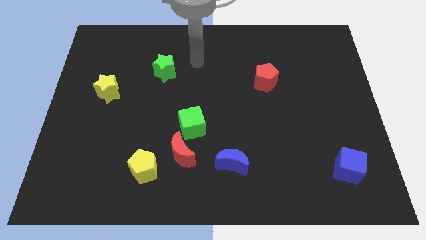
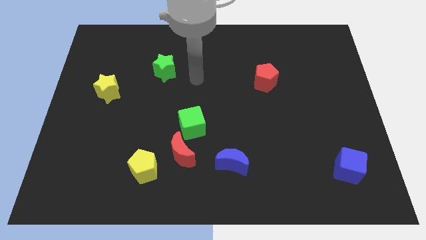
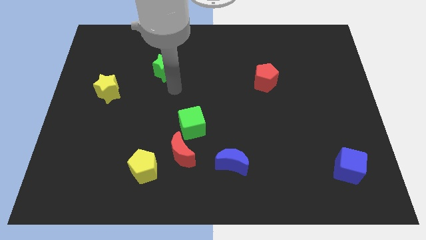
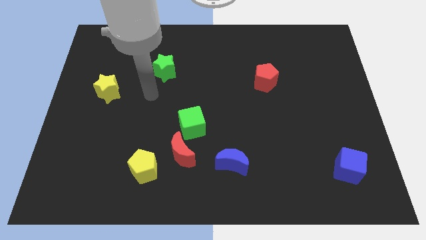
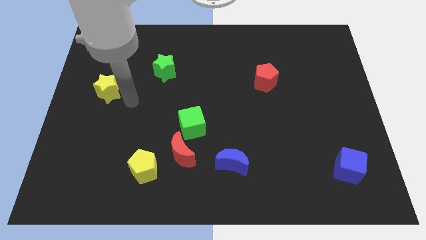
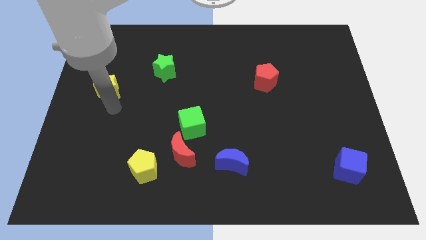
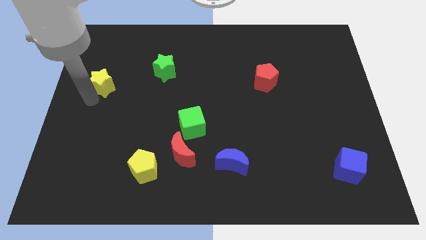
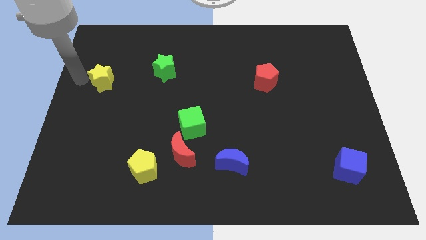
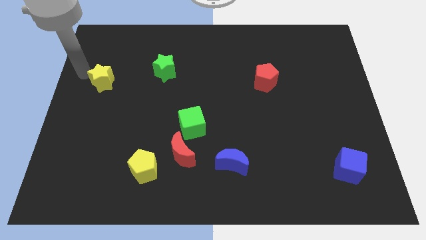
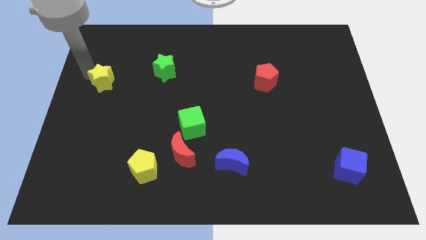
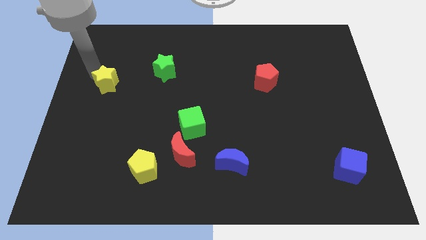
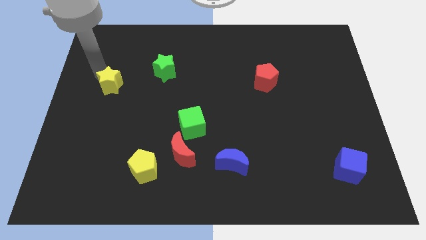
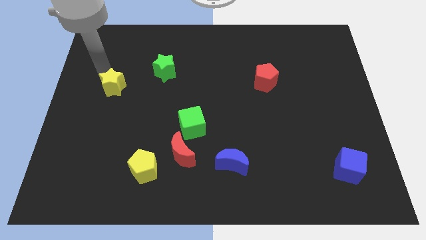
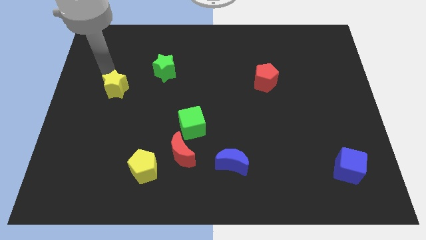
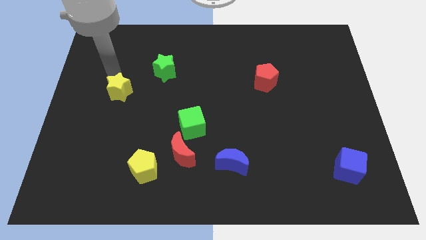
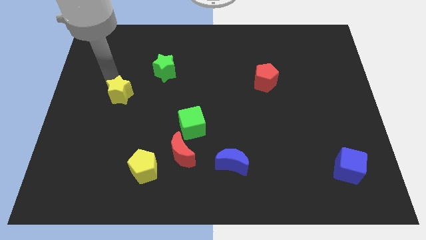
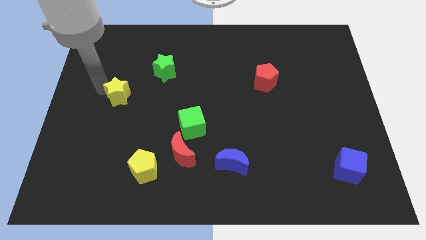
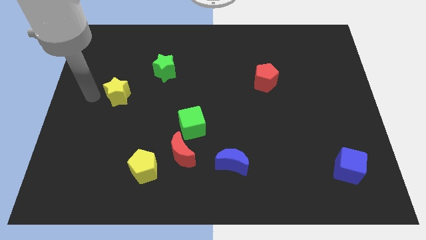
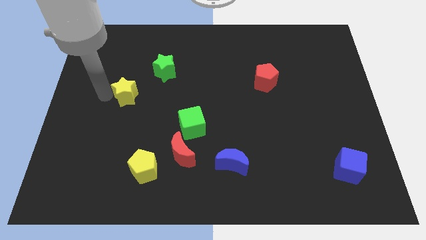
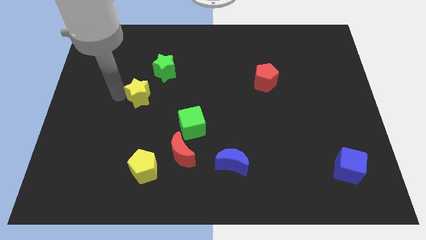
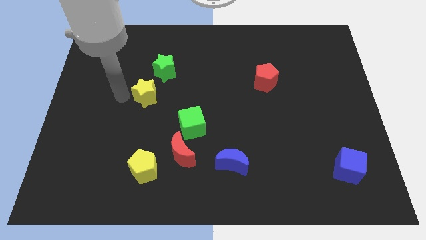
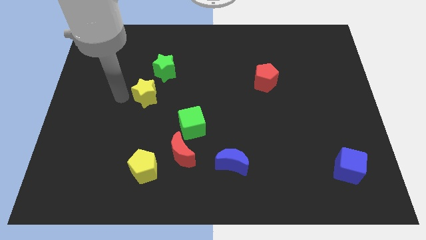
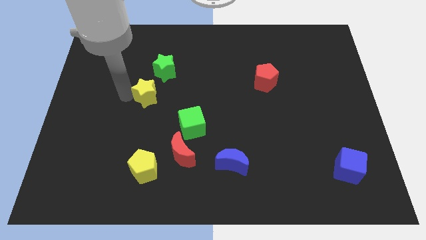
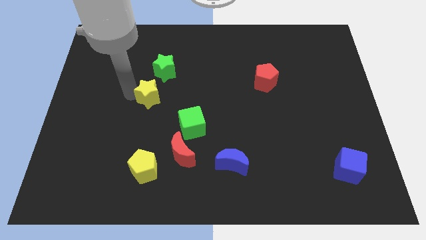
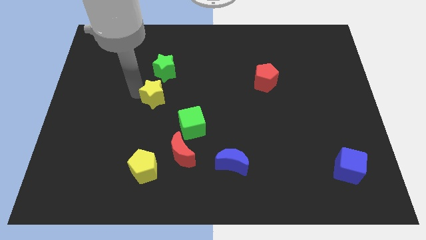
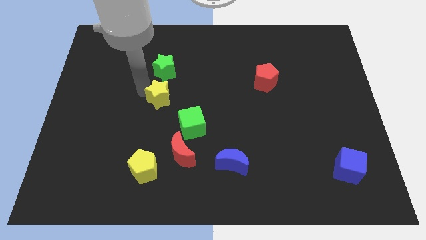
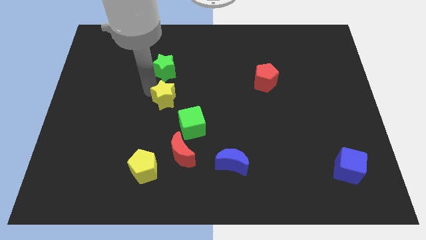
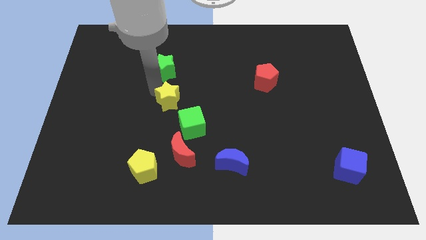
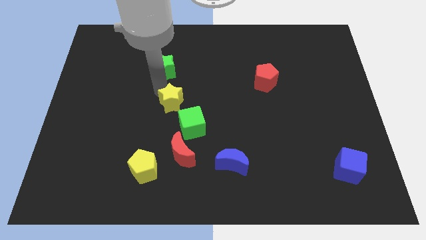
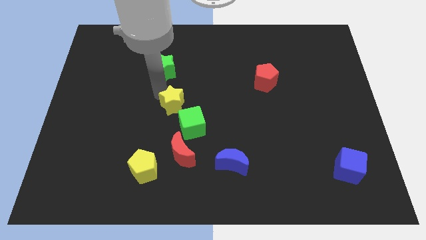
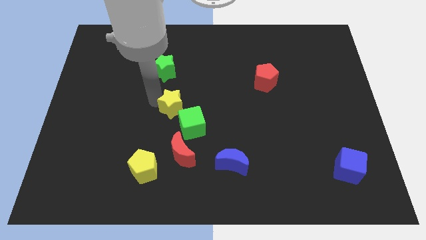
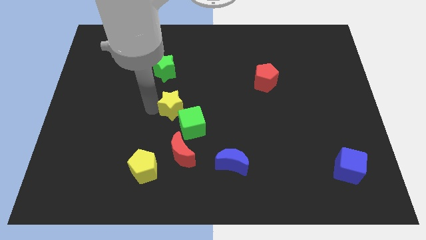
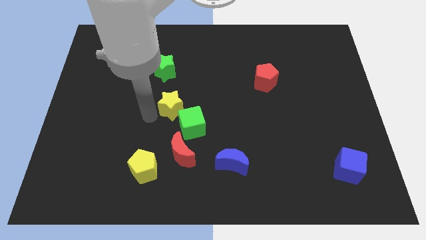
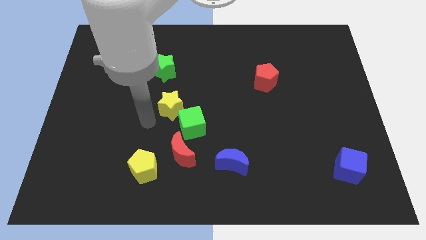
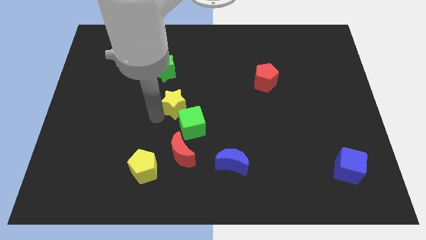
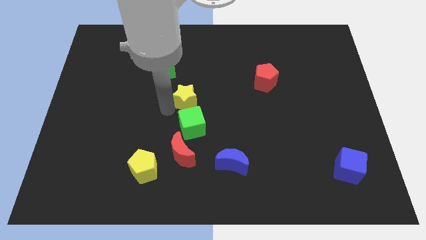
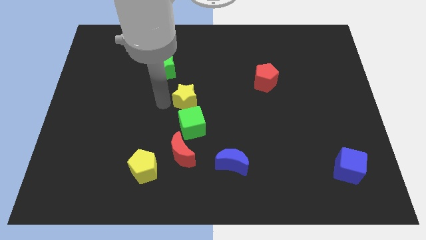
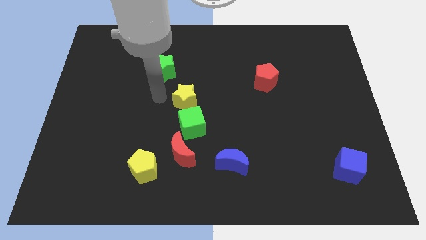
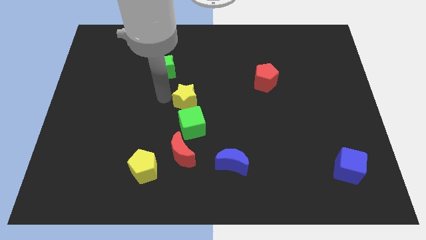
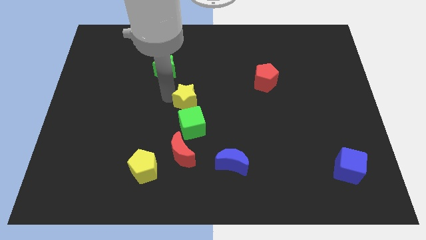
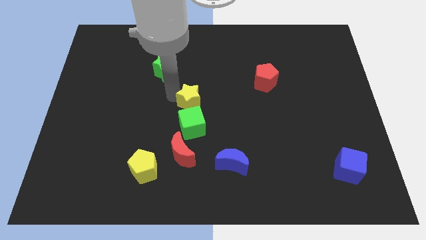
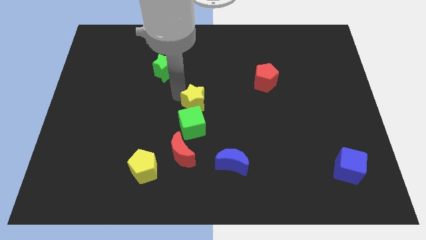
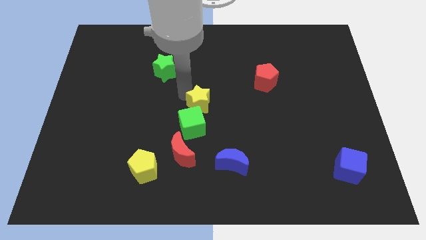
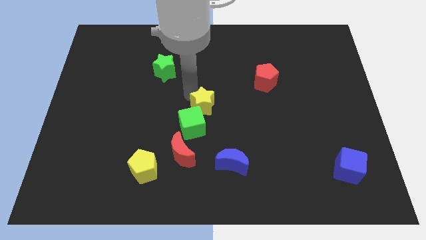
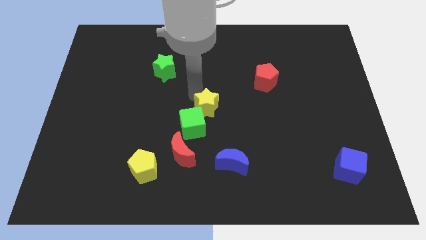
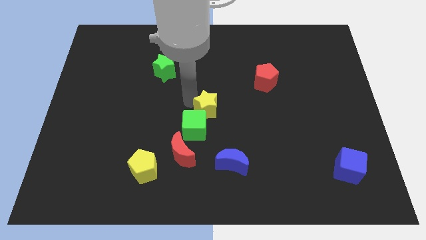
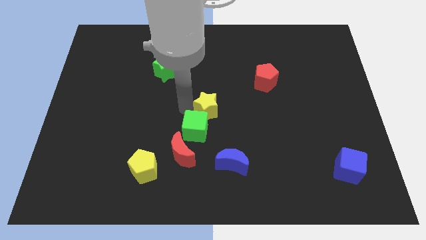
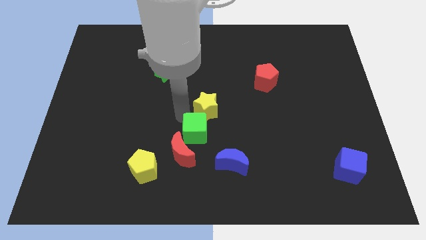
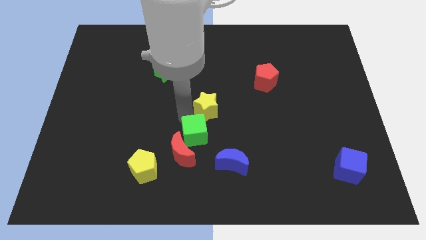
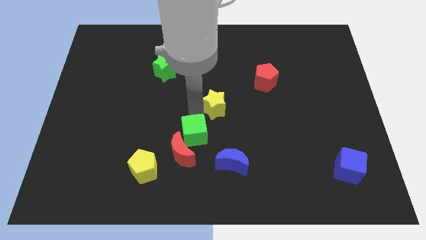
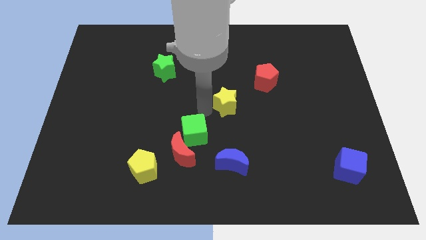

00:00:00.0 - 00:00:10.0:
move the yellow star to the bottom left side of the red pentagon

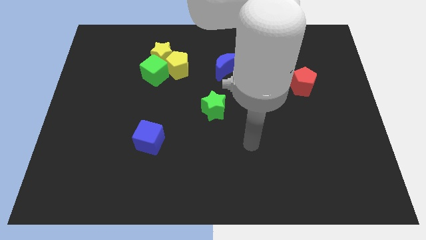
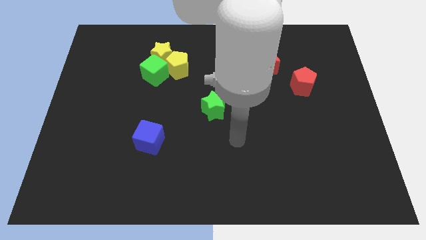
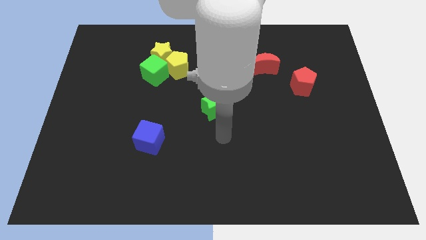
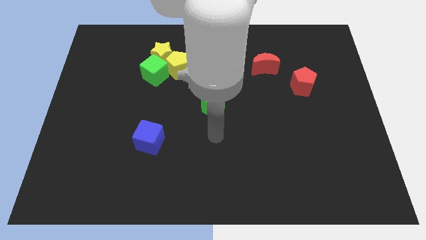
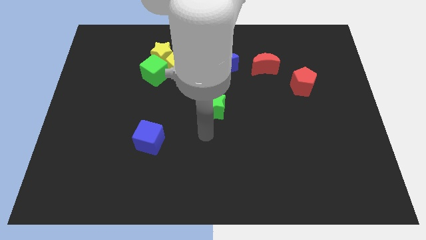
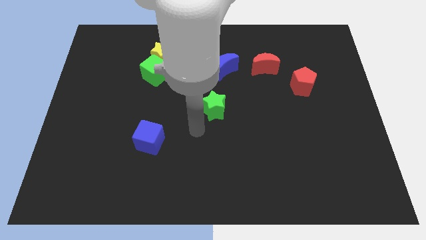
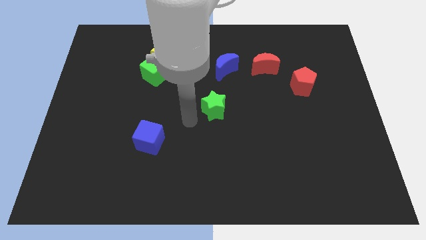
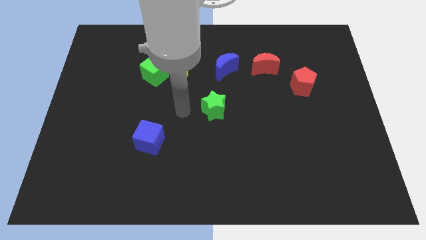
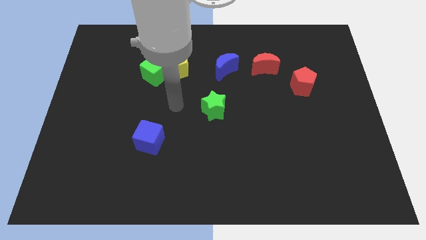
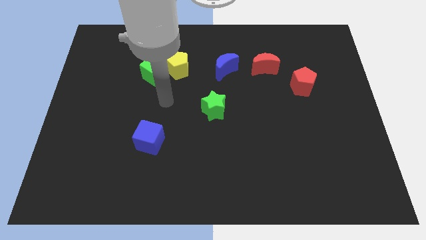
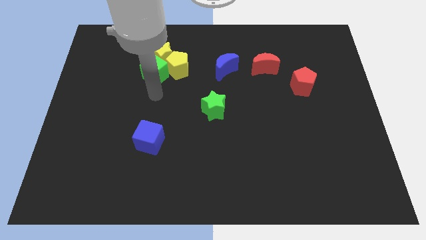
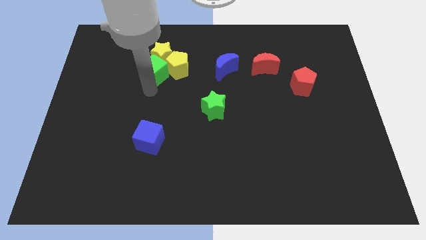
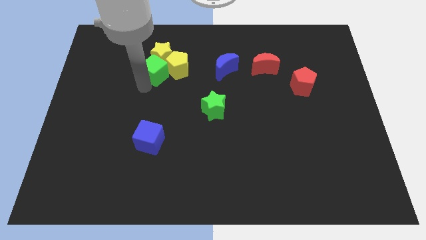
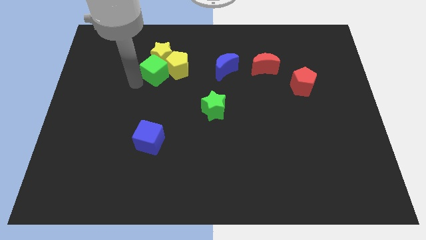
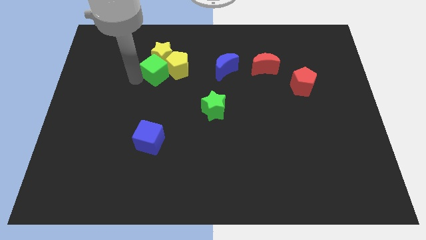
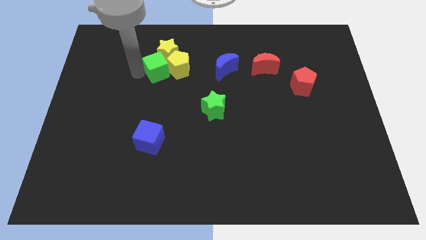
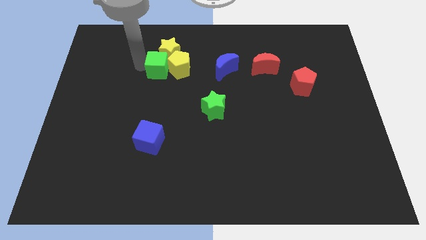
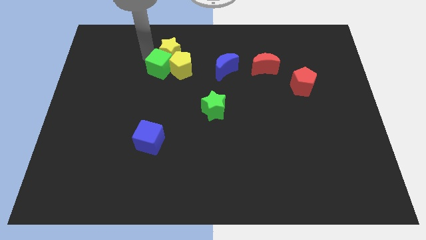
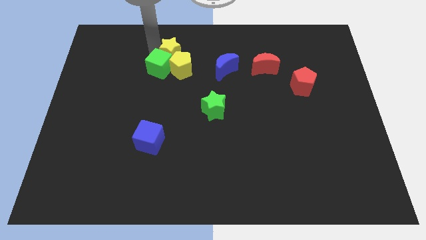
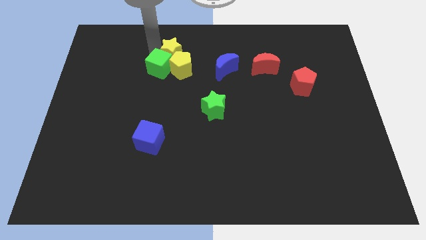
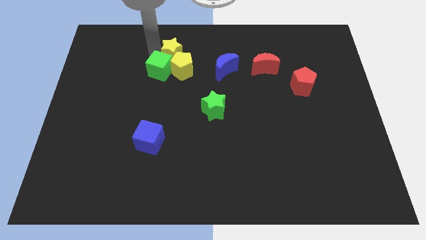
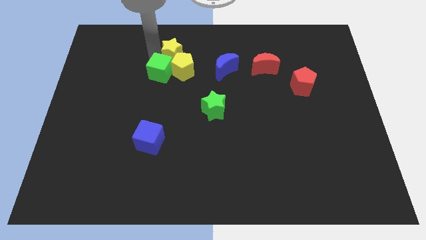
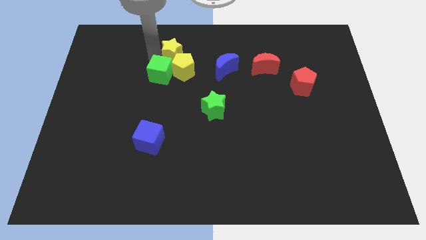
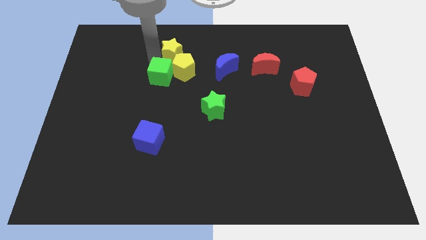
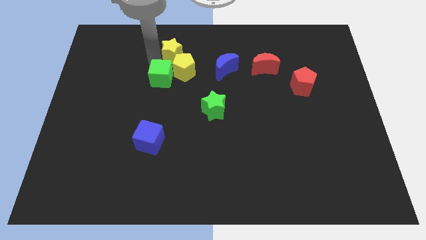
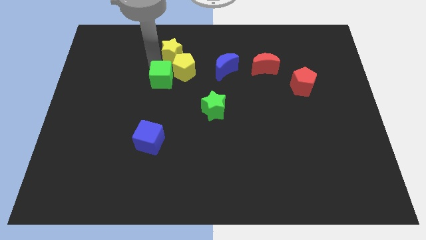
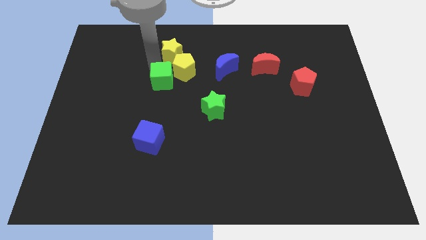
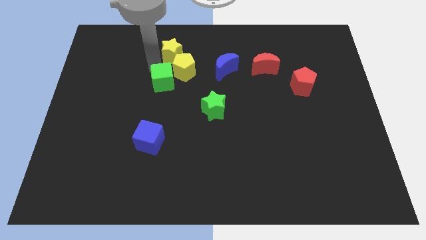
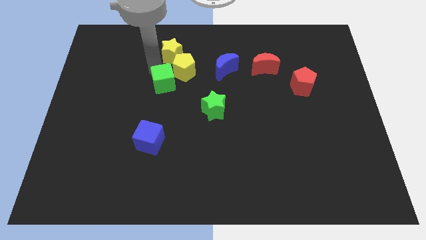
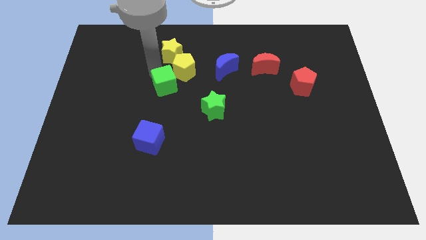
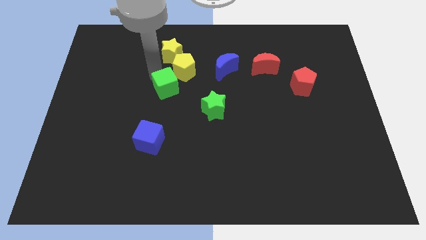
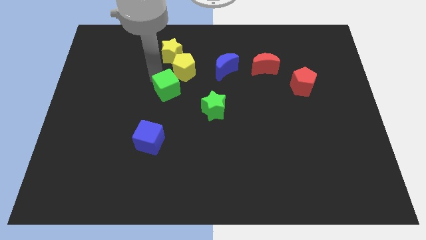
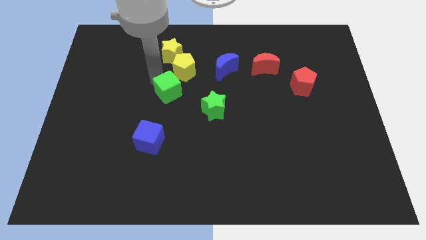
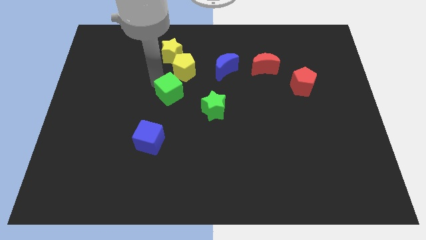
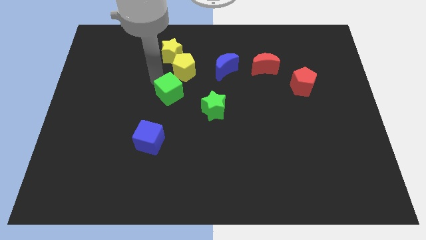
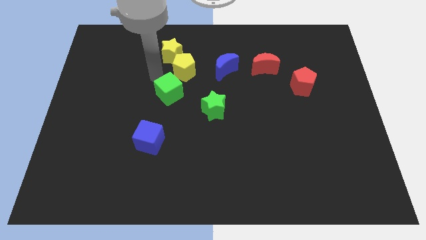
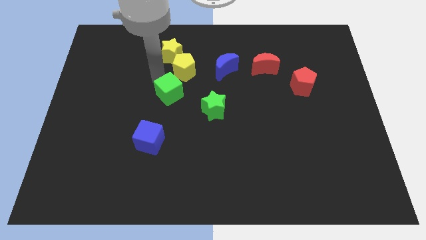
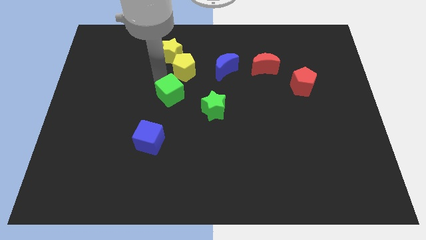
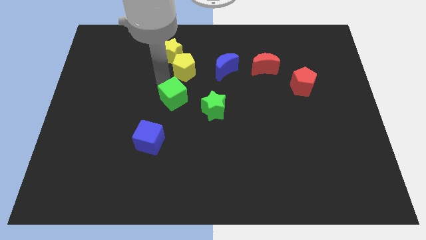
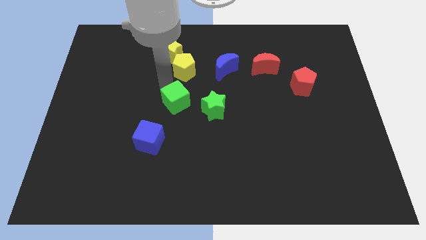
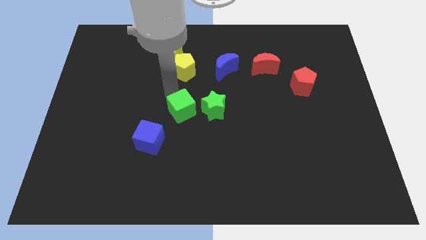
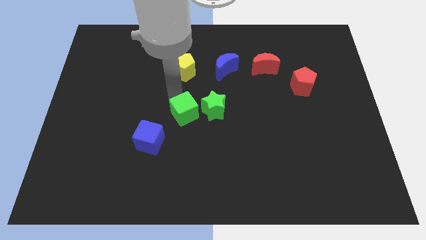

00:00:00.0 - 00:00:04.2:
move the green cube to the bottom left of the green star
